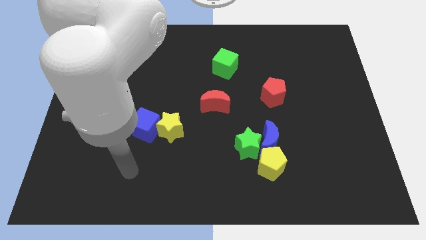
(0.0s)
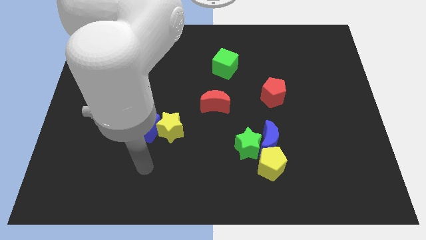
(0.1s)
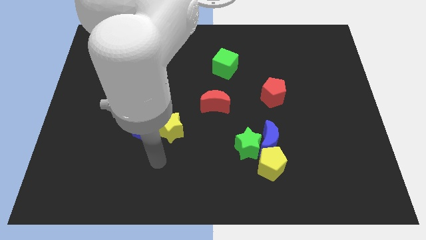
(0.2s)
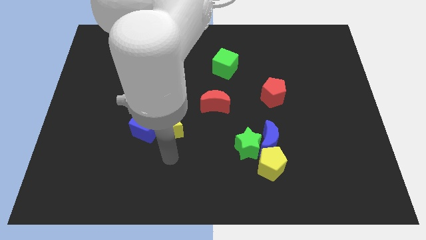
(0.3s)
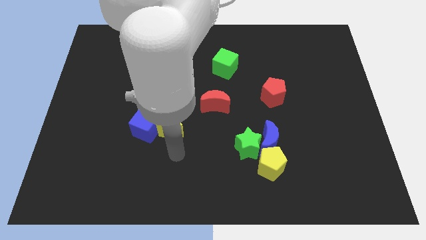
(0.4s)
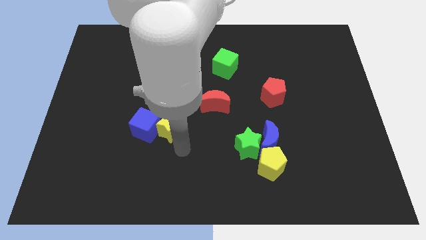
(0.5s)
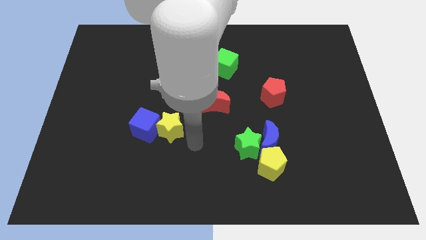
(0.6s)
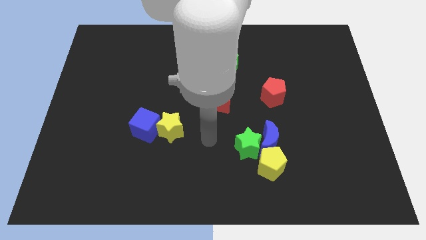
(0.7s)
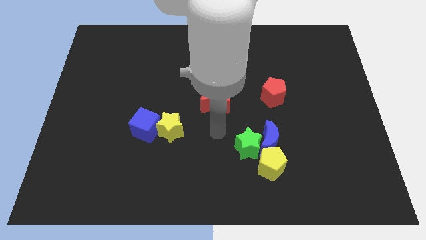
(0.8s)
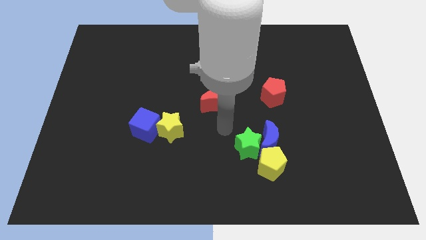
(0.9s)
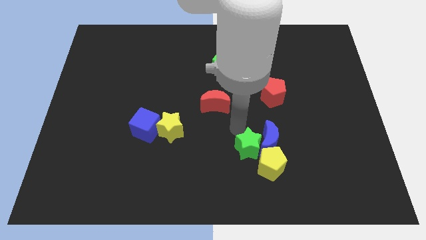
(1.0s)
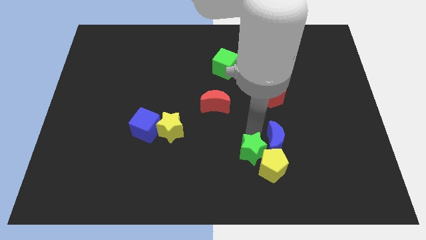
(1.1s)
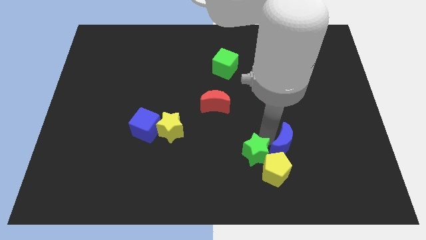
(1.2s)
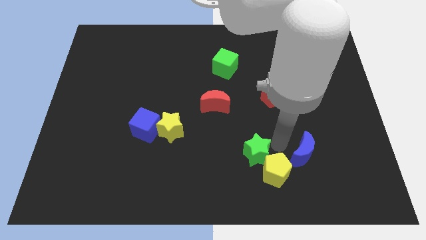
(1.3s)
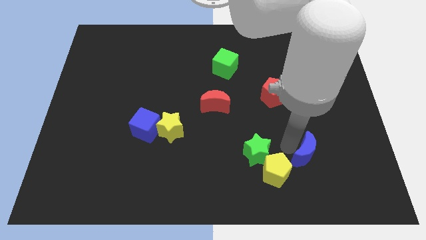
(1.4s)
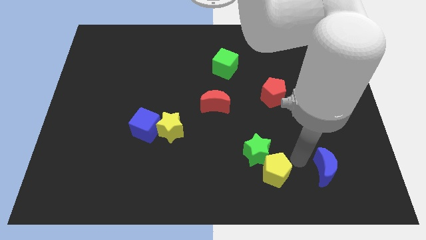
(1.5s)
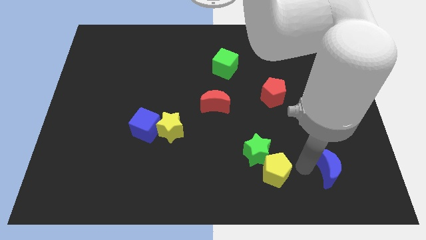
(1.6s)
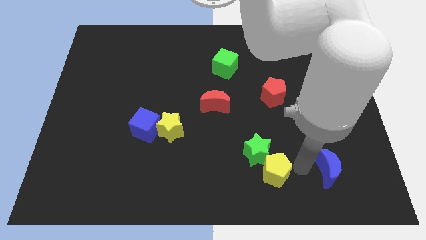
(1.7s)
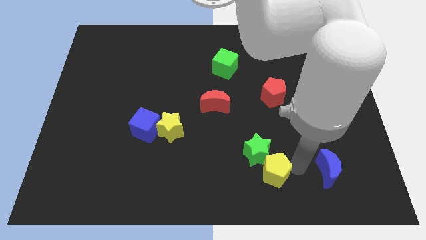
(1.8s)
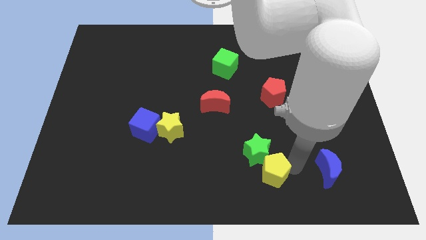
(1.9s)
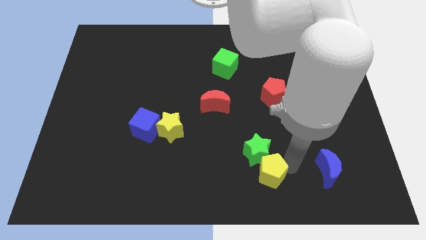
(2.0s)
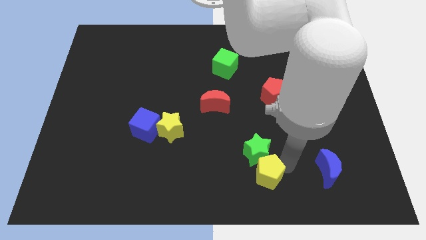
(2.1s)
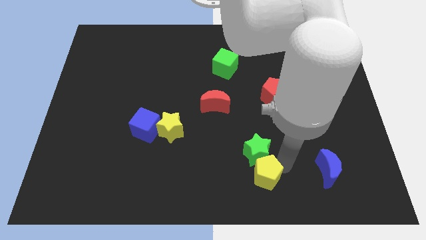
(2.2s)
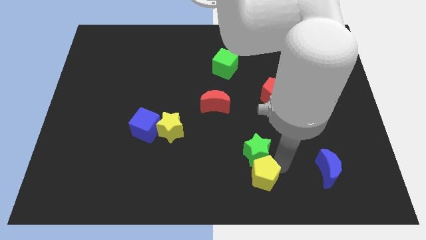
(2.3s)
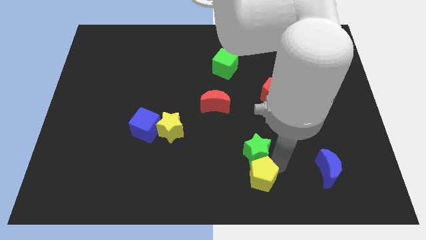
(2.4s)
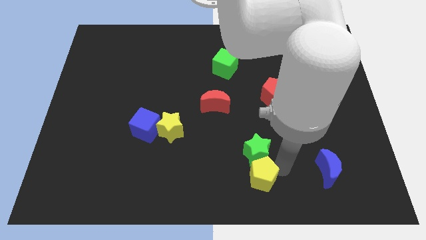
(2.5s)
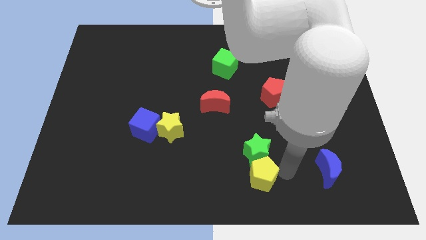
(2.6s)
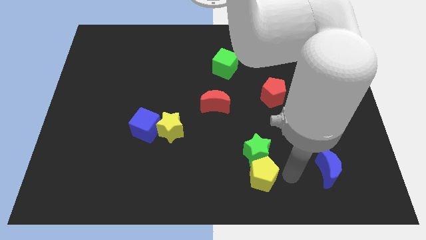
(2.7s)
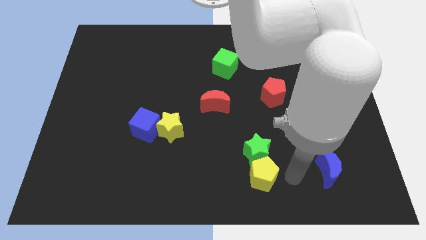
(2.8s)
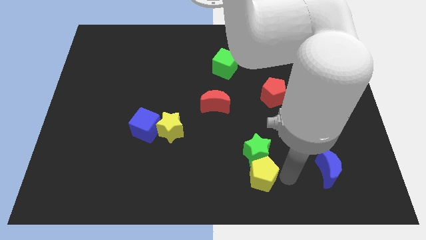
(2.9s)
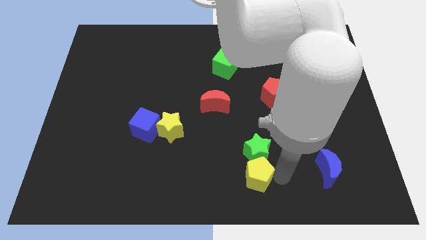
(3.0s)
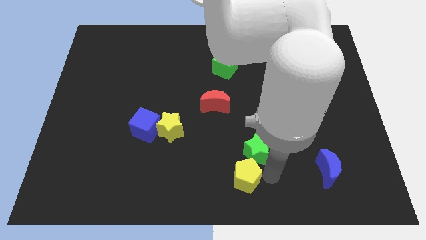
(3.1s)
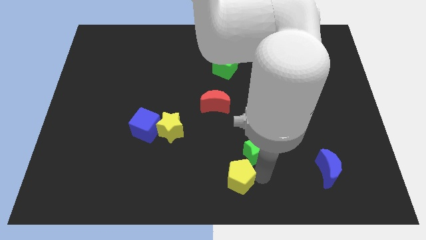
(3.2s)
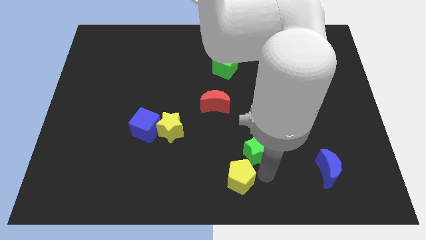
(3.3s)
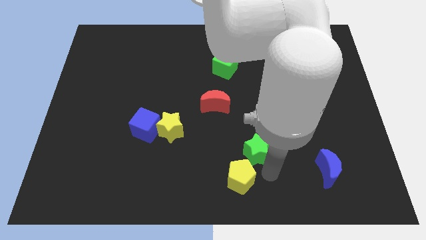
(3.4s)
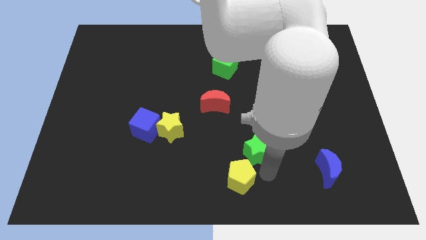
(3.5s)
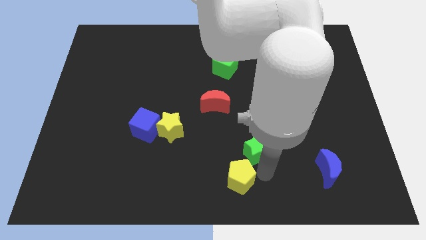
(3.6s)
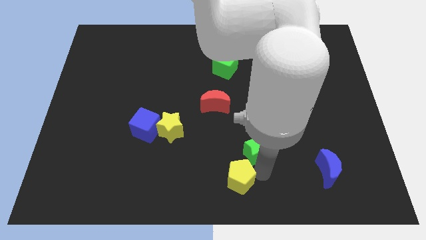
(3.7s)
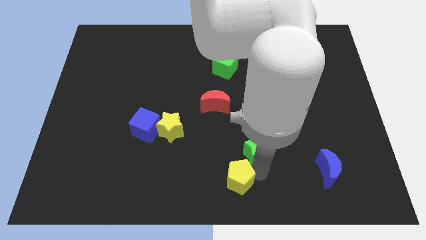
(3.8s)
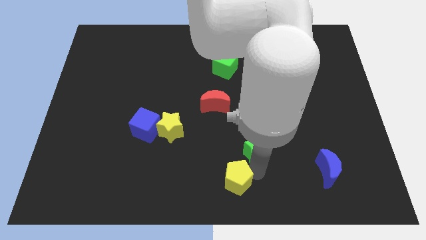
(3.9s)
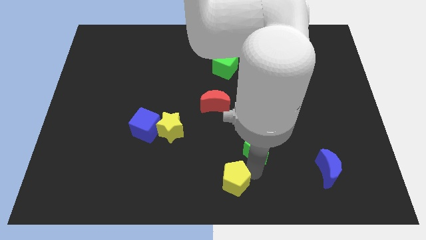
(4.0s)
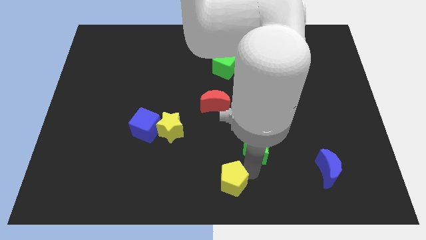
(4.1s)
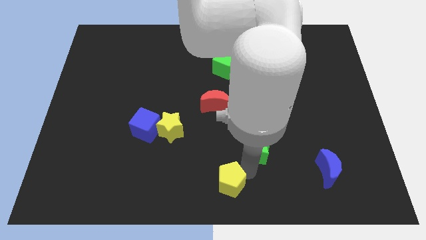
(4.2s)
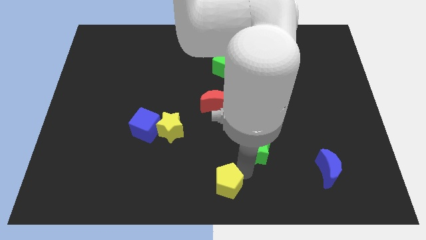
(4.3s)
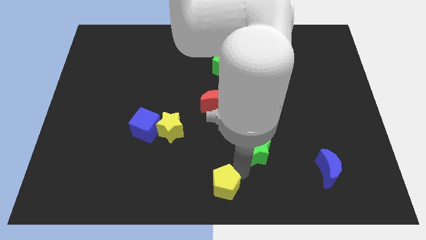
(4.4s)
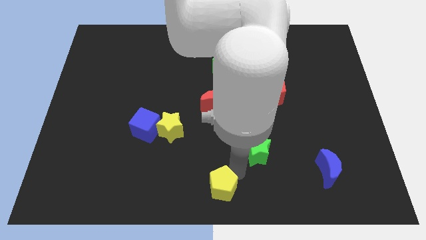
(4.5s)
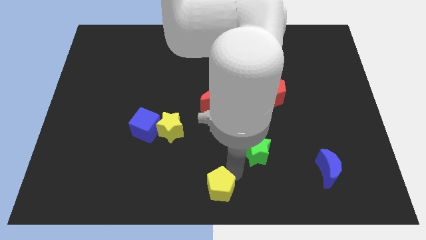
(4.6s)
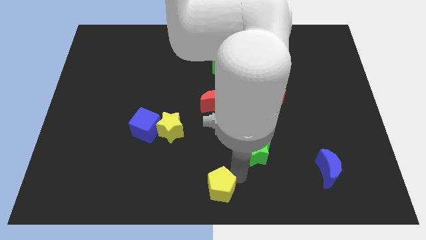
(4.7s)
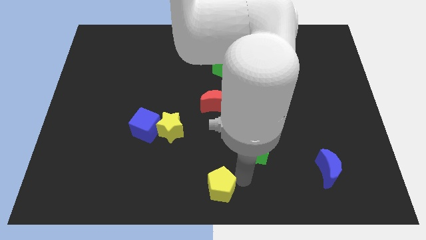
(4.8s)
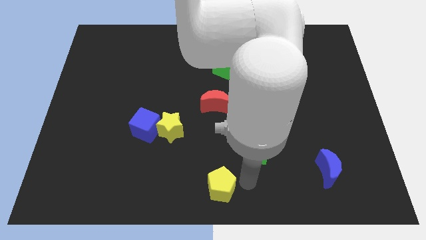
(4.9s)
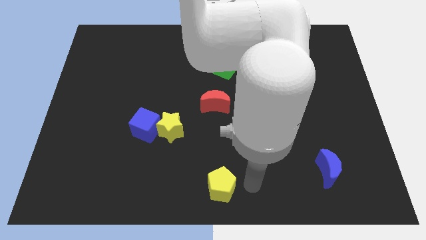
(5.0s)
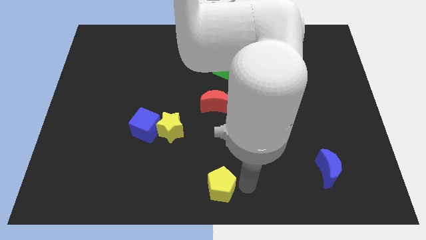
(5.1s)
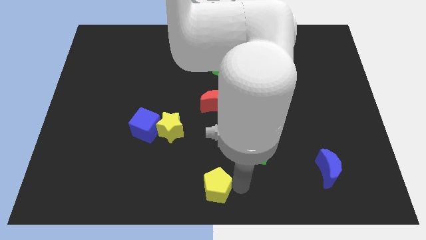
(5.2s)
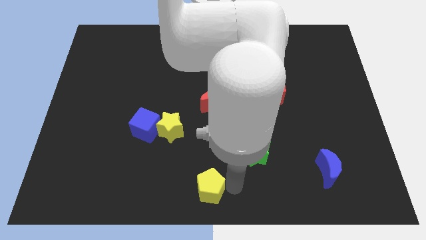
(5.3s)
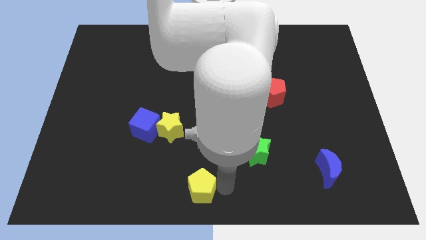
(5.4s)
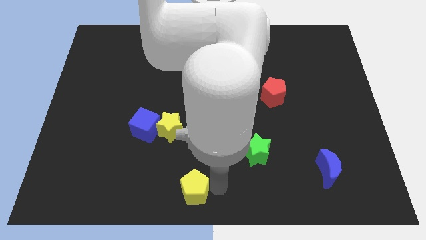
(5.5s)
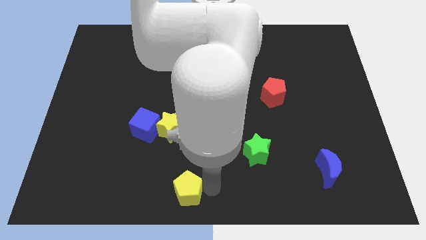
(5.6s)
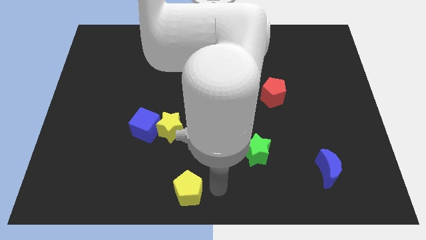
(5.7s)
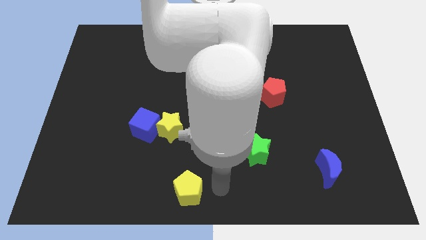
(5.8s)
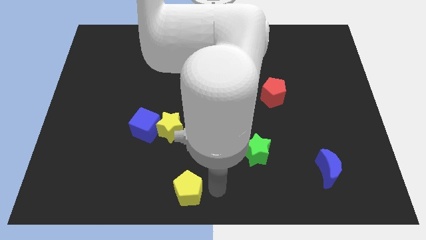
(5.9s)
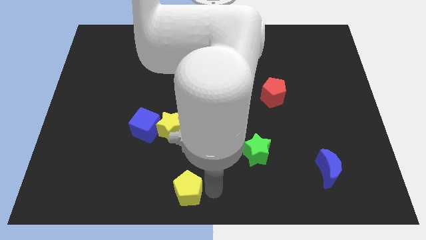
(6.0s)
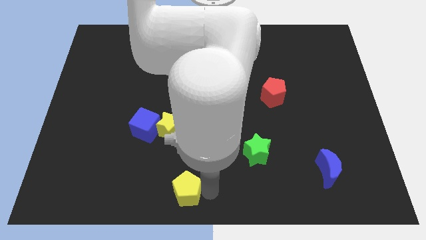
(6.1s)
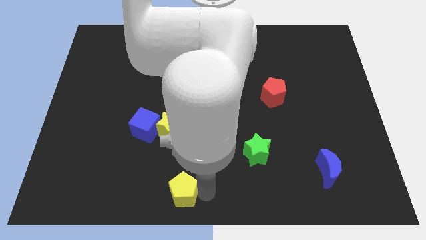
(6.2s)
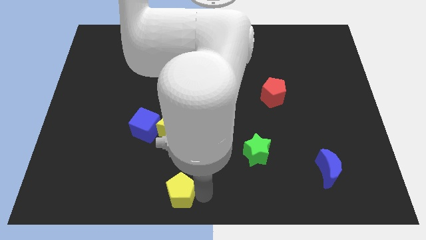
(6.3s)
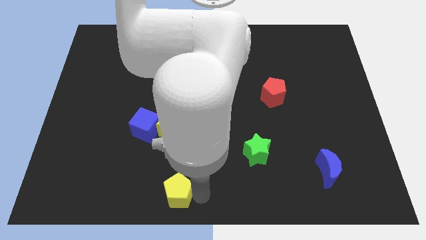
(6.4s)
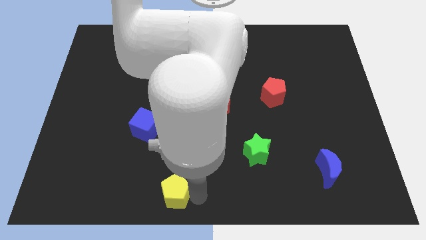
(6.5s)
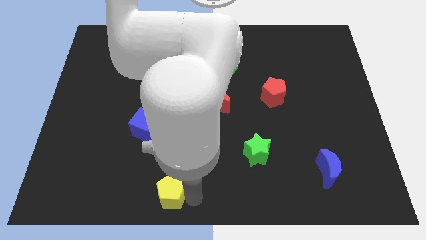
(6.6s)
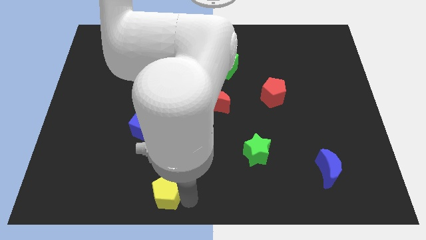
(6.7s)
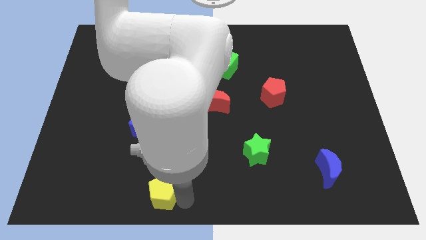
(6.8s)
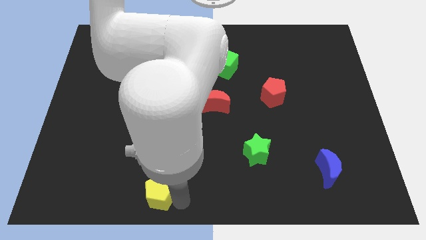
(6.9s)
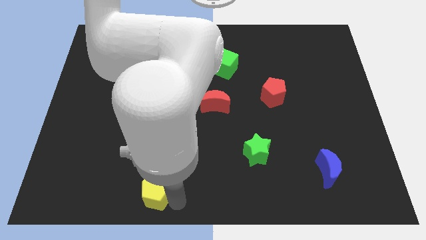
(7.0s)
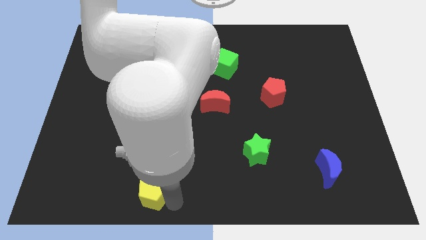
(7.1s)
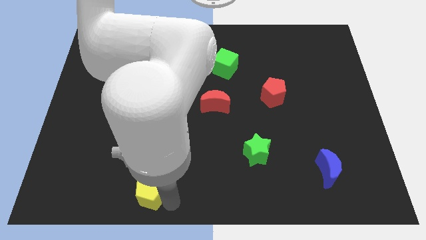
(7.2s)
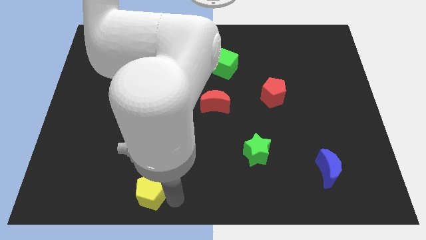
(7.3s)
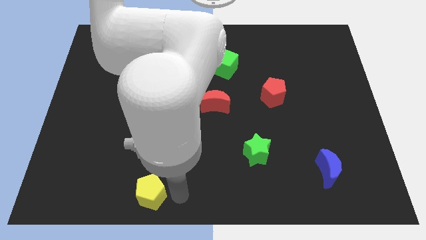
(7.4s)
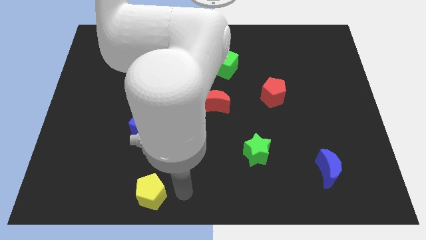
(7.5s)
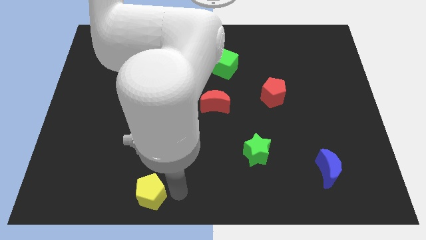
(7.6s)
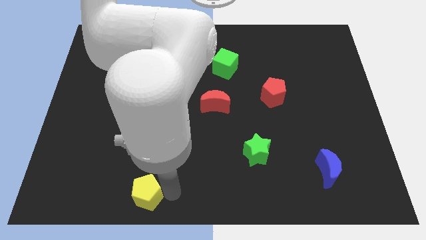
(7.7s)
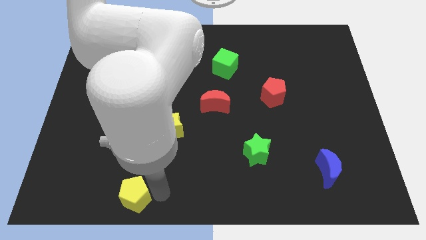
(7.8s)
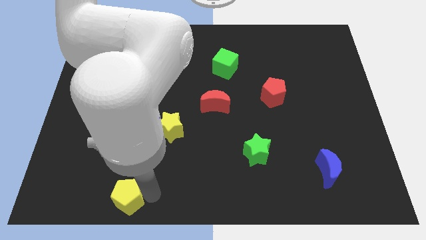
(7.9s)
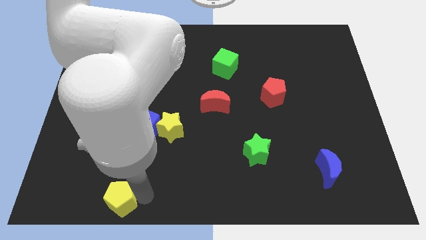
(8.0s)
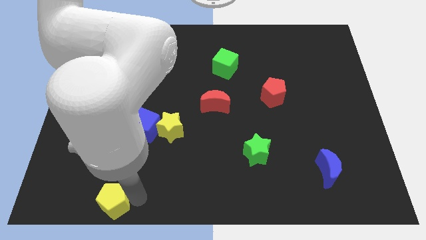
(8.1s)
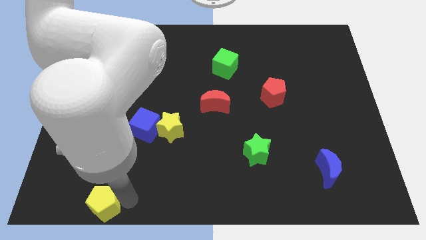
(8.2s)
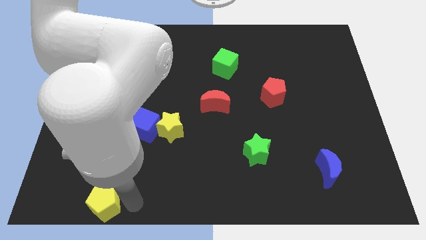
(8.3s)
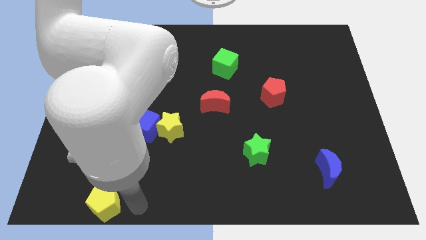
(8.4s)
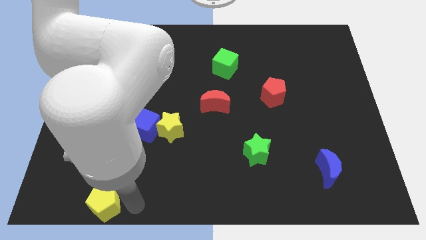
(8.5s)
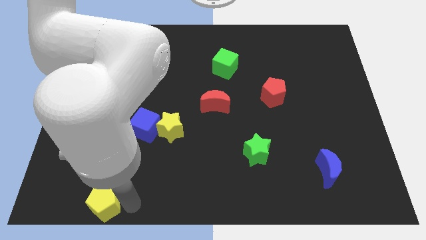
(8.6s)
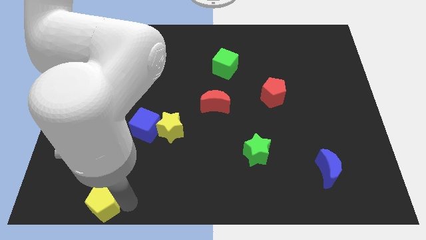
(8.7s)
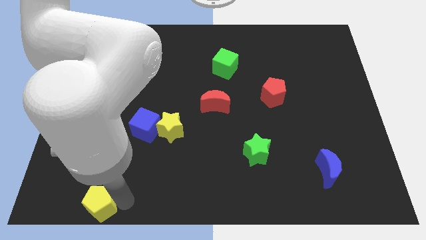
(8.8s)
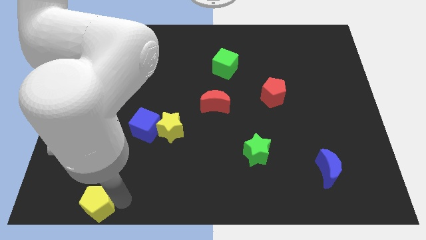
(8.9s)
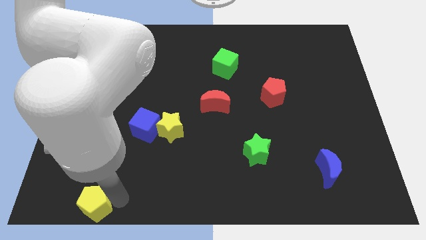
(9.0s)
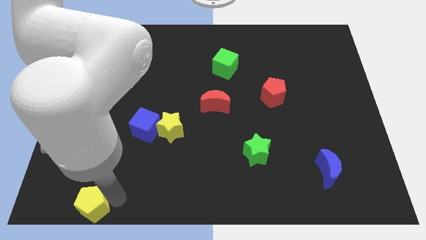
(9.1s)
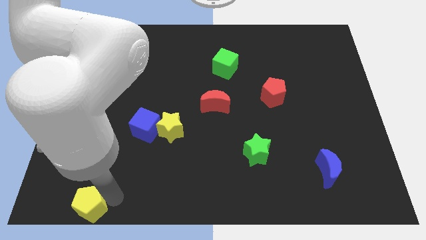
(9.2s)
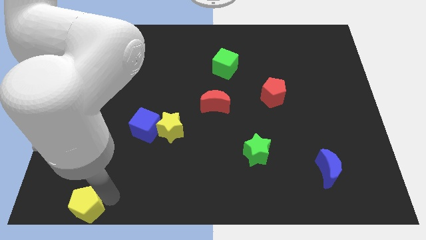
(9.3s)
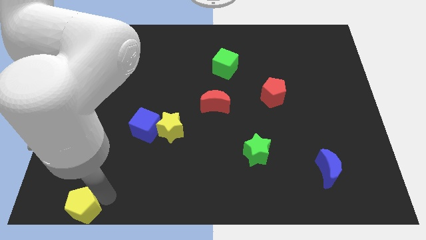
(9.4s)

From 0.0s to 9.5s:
slide the yellow pentagon to the lower left corner
